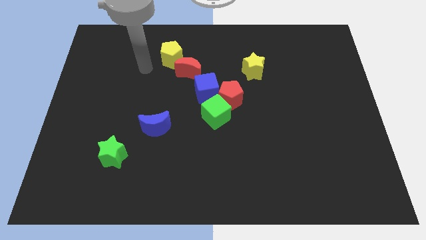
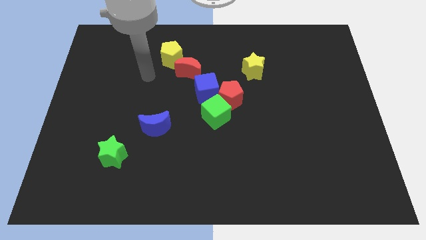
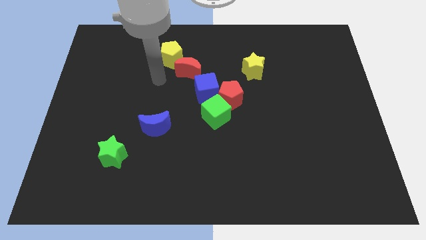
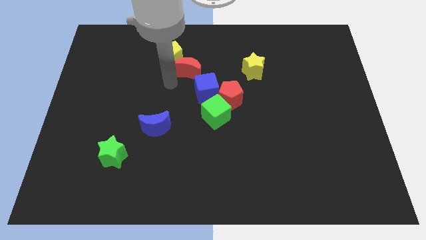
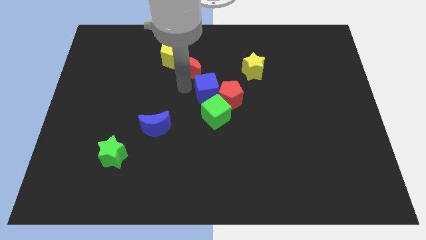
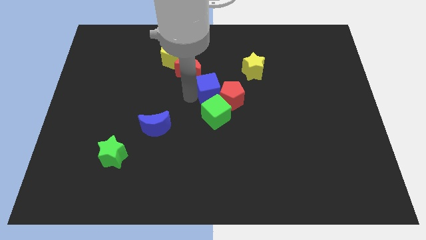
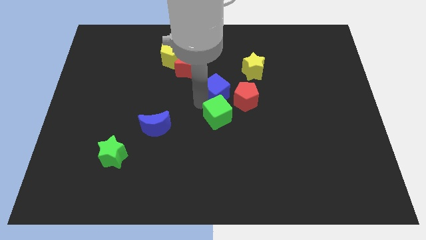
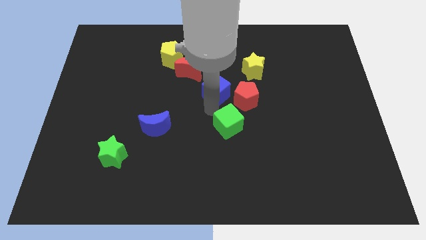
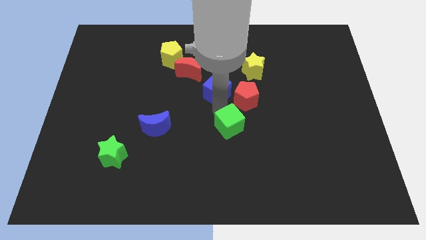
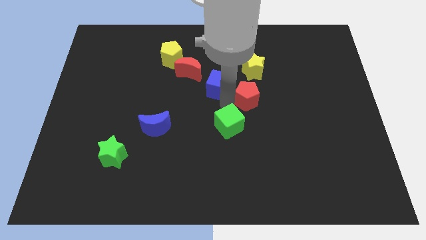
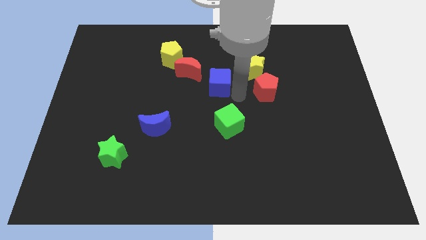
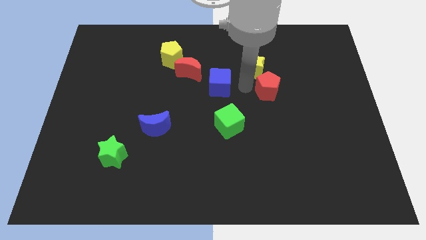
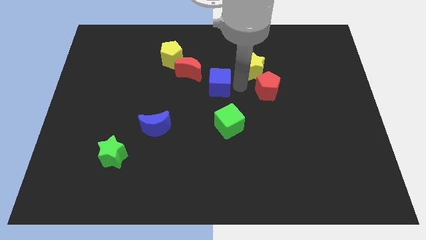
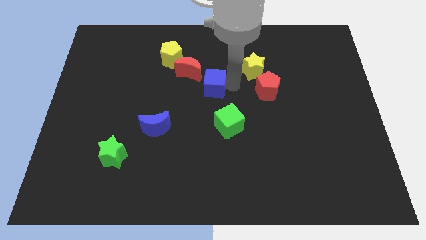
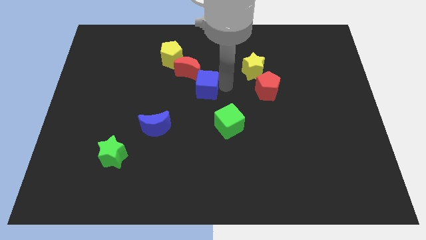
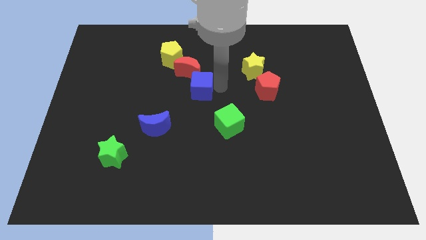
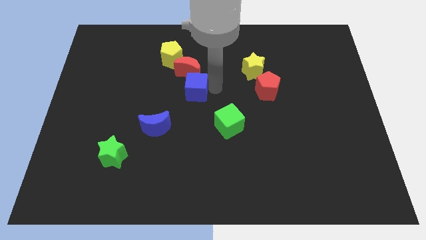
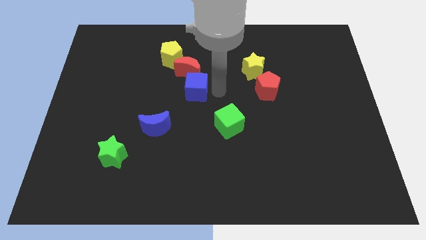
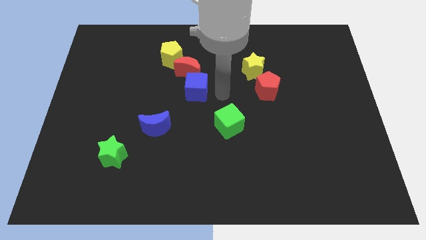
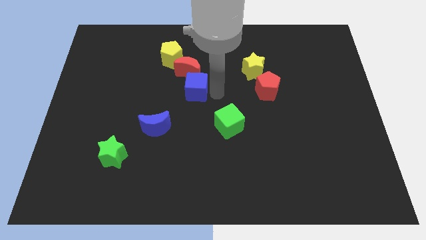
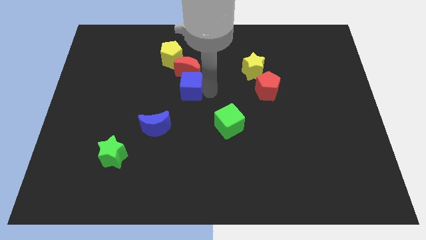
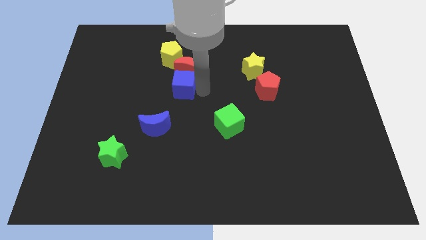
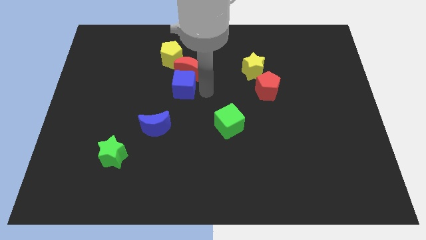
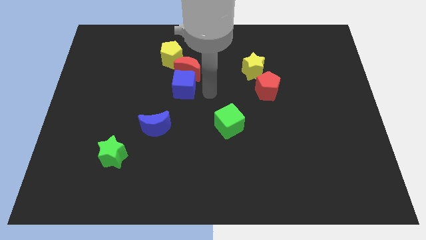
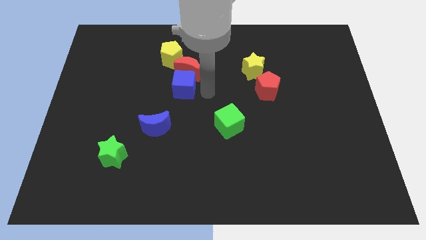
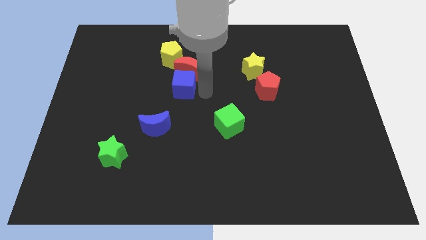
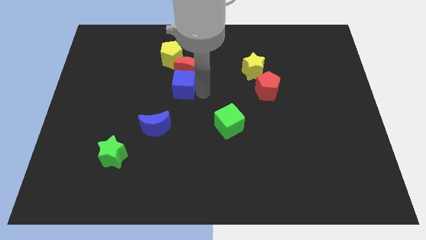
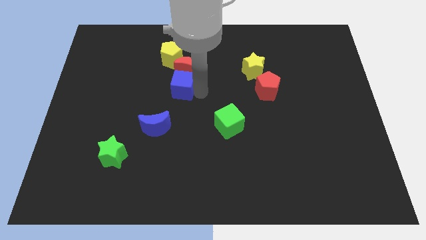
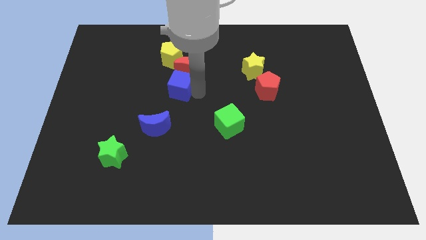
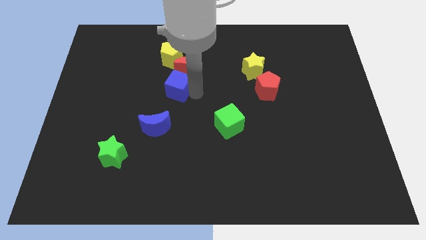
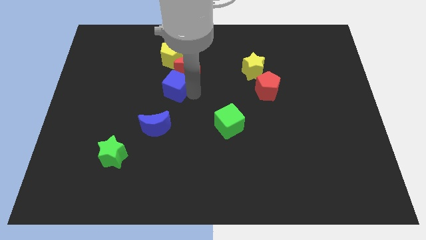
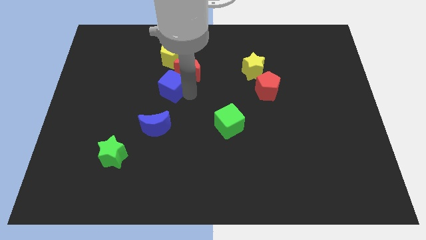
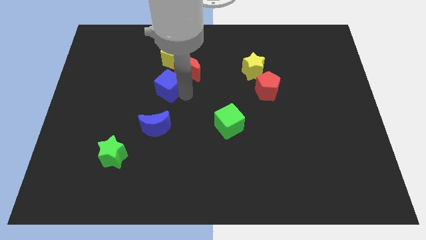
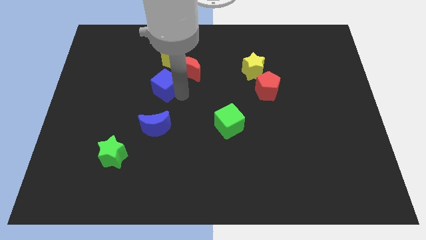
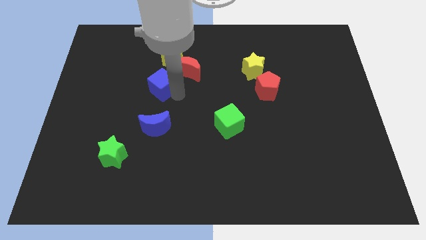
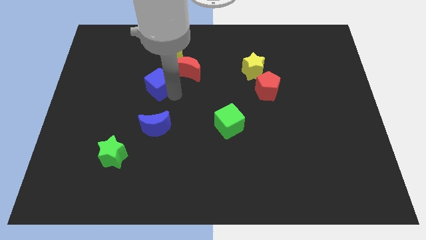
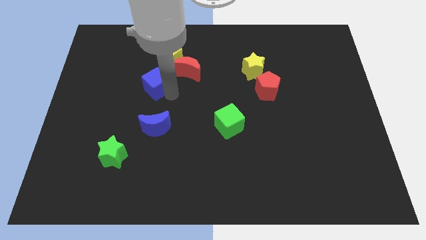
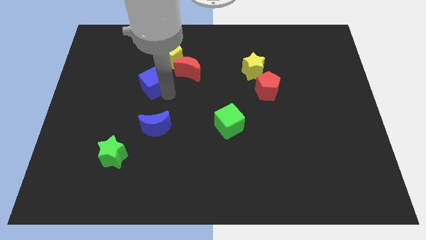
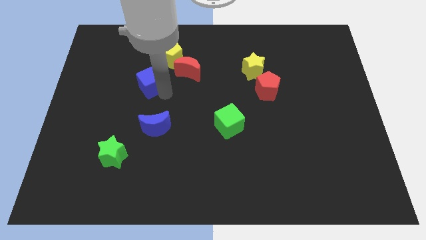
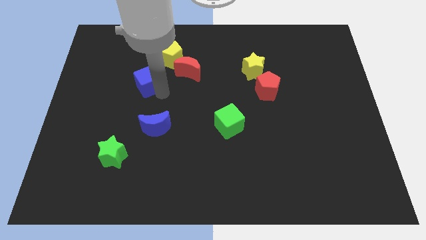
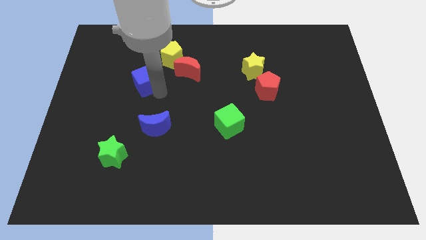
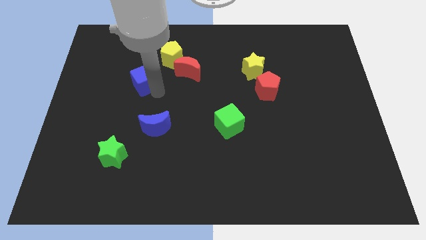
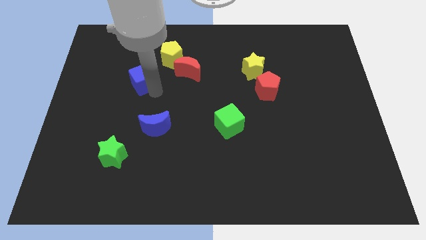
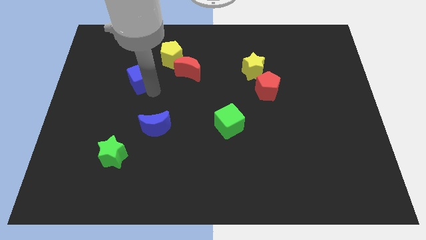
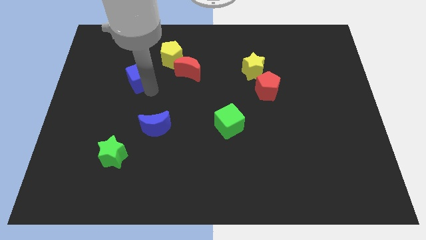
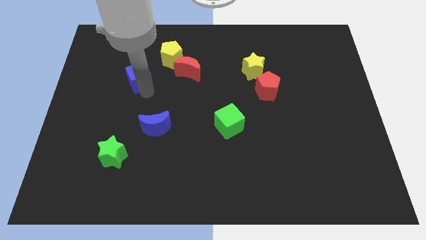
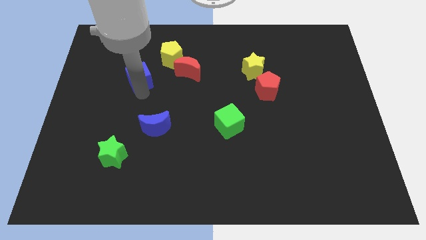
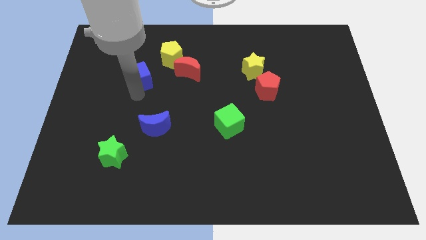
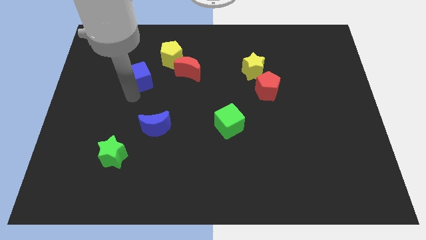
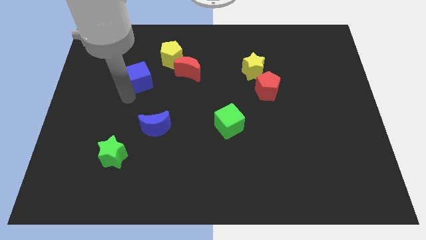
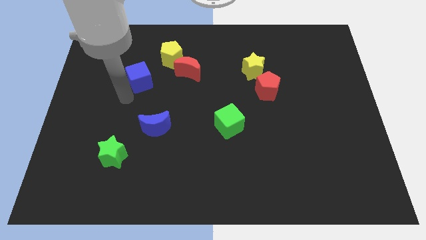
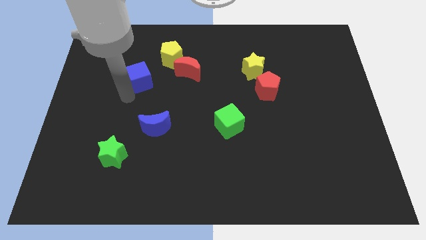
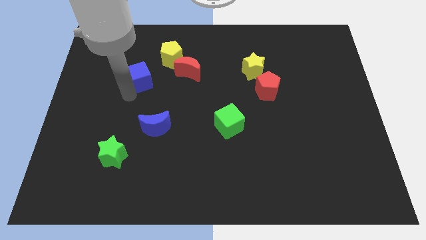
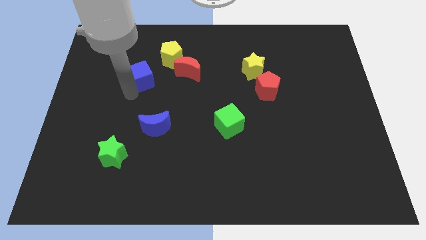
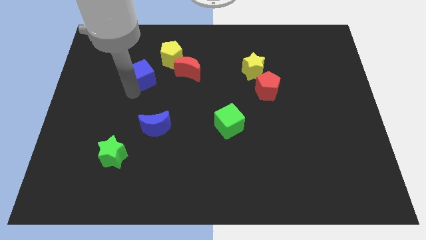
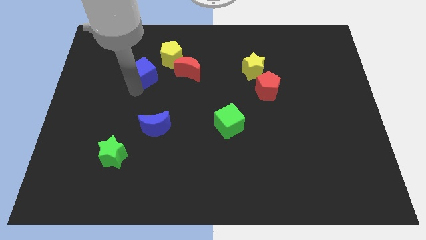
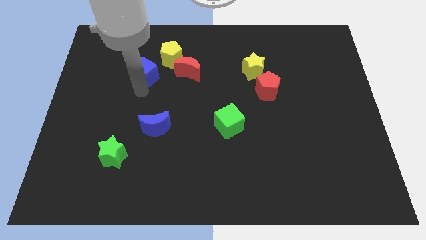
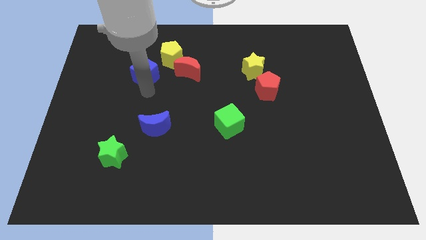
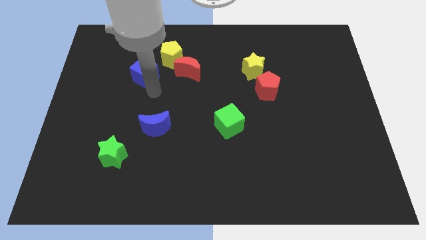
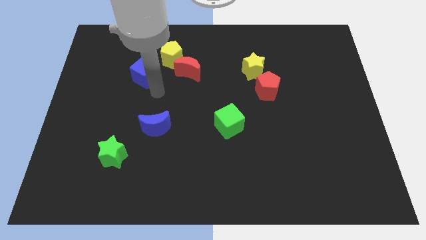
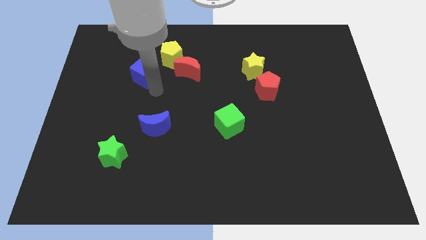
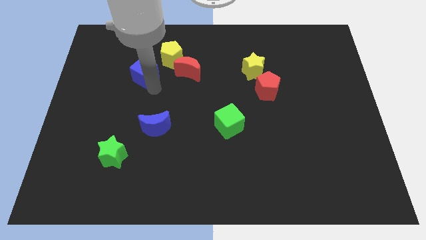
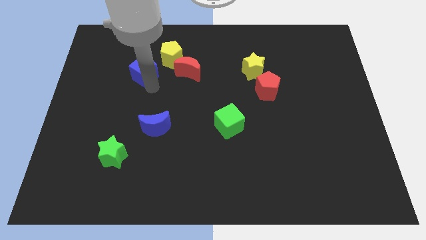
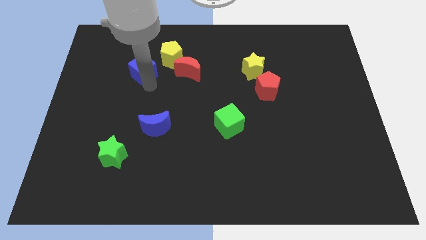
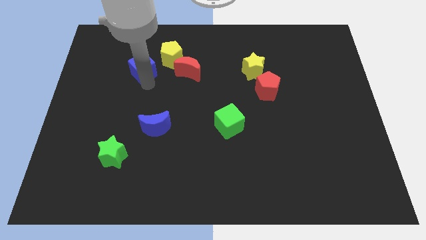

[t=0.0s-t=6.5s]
push the blue cube left of the yellow pentagon

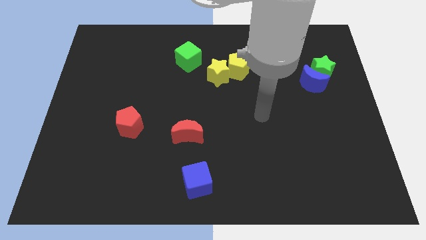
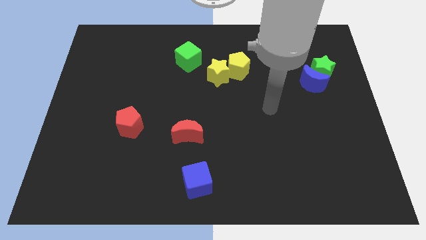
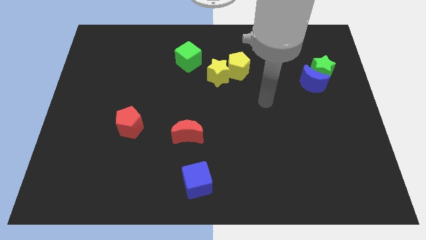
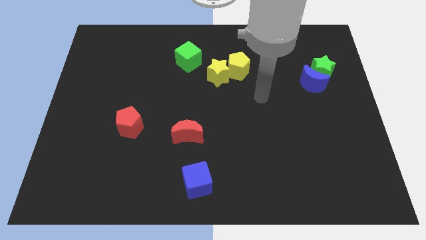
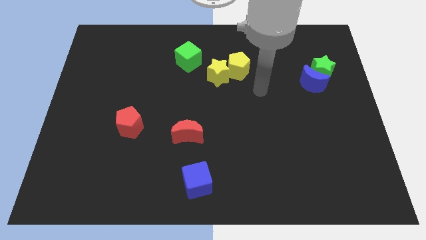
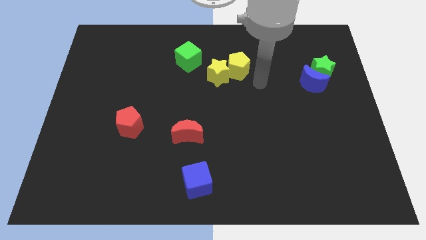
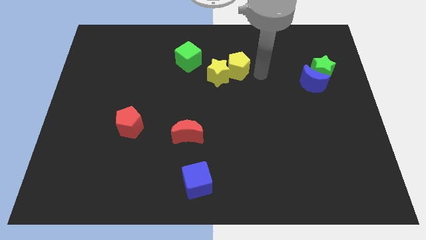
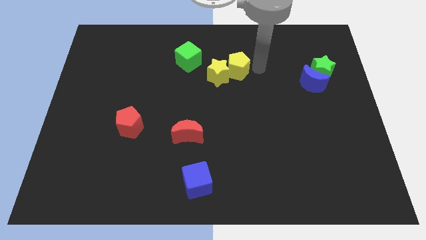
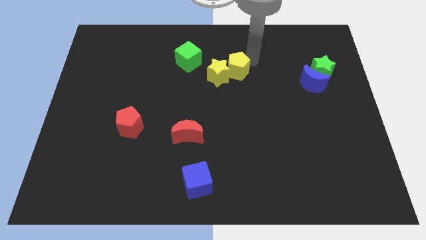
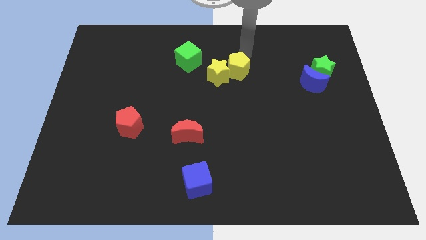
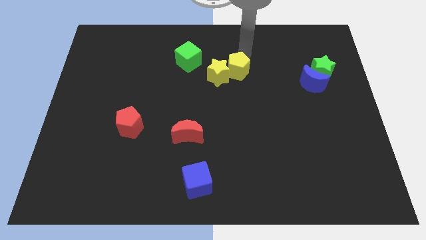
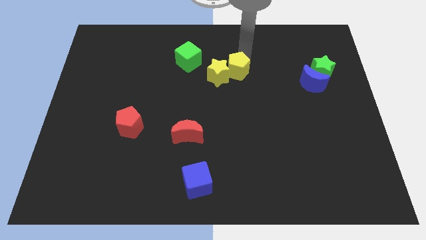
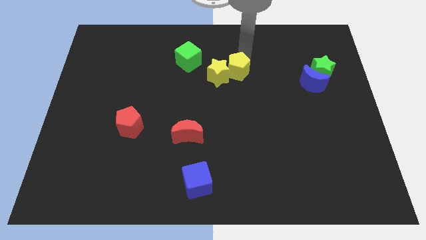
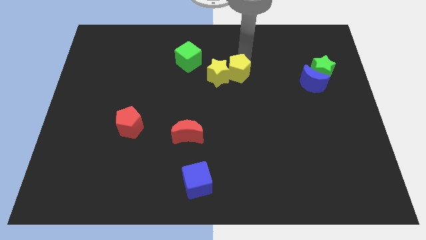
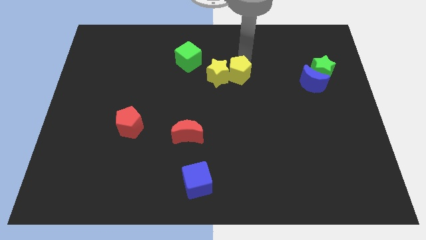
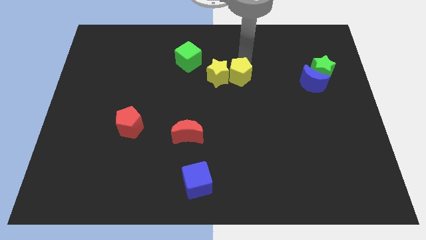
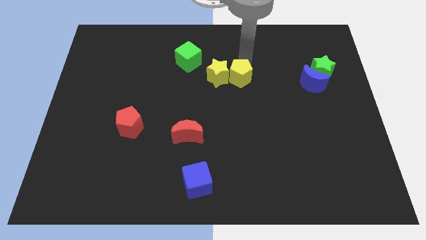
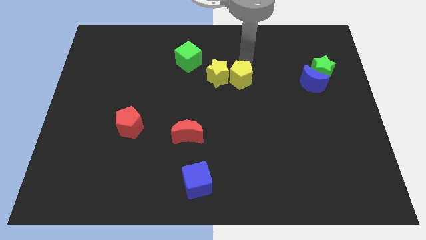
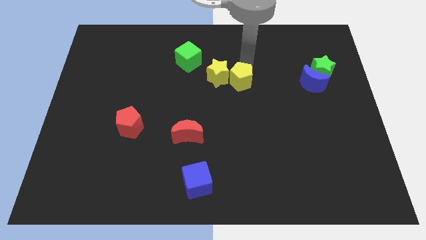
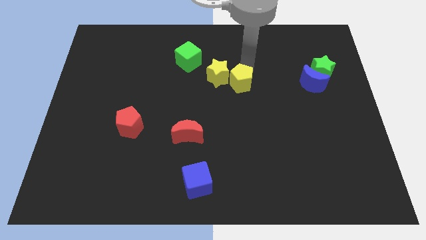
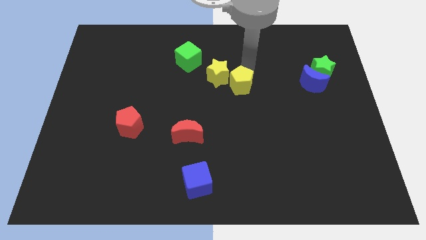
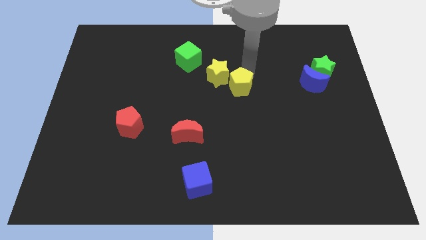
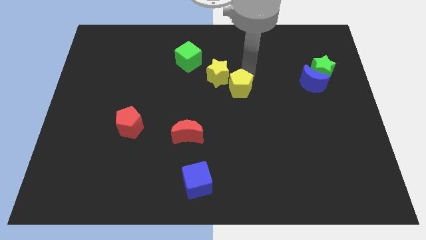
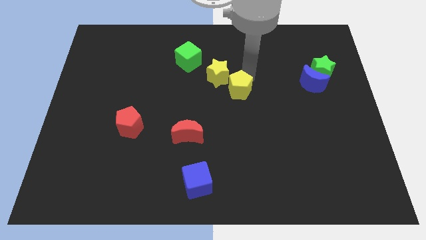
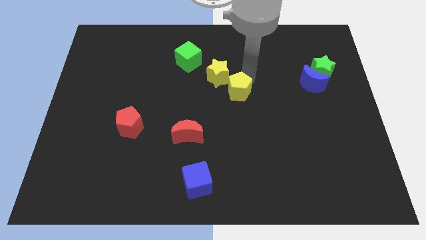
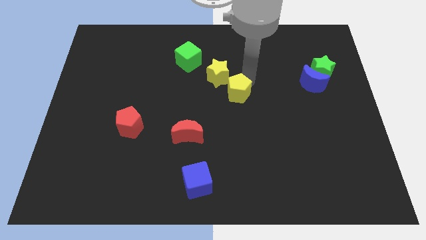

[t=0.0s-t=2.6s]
push the yellow pentagon below the yellow star
